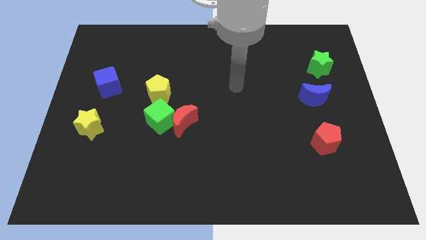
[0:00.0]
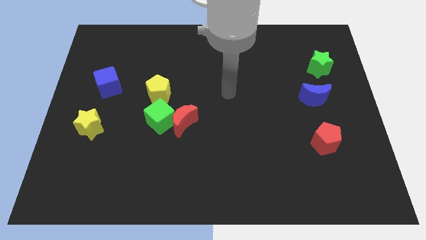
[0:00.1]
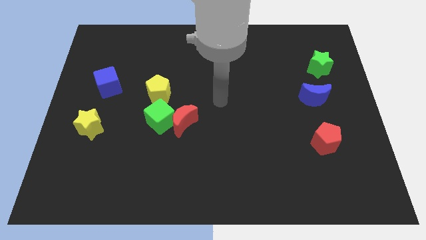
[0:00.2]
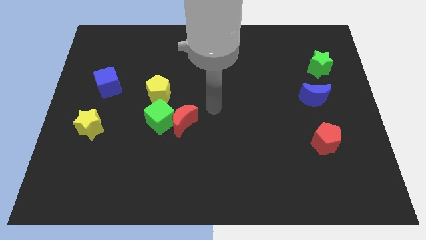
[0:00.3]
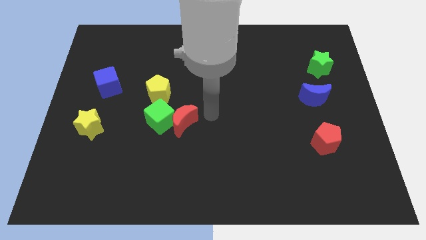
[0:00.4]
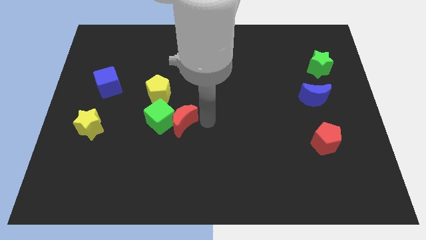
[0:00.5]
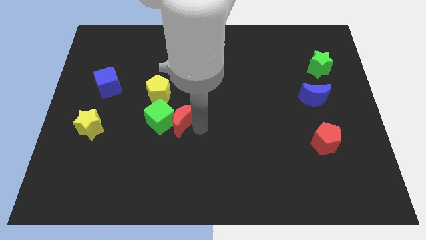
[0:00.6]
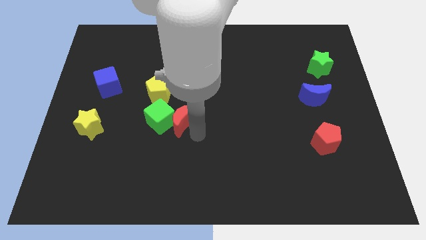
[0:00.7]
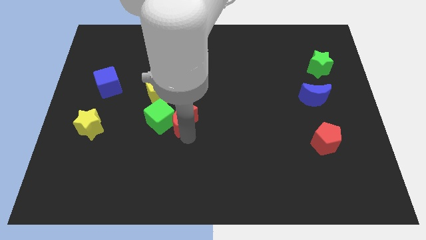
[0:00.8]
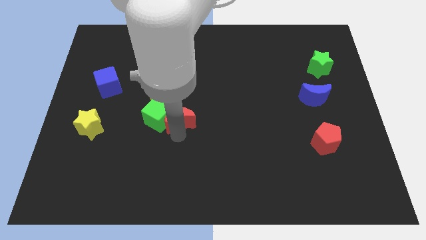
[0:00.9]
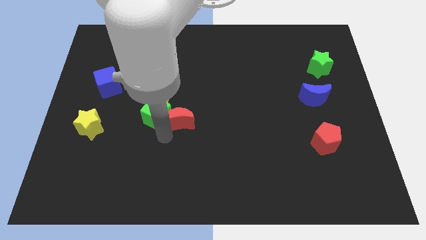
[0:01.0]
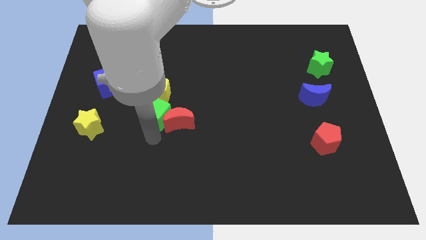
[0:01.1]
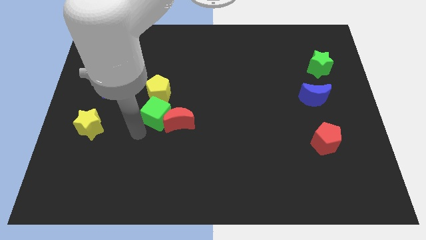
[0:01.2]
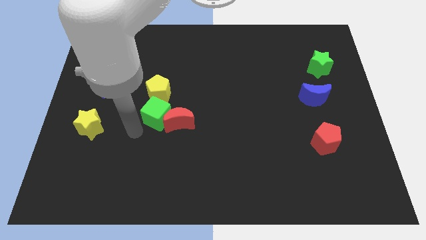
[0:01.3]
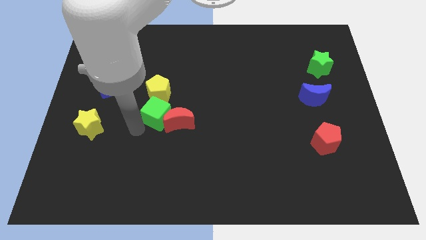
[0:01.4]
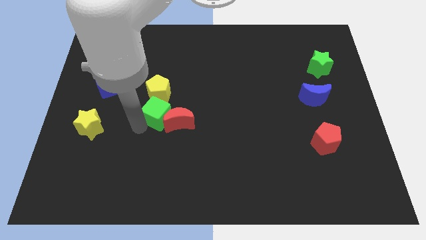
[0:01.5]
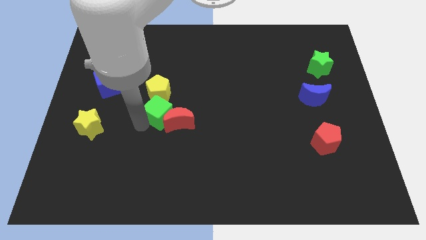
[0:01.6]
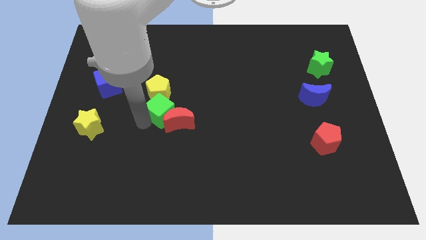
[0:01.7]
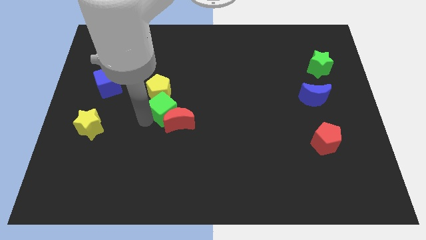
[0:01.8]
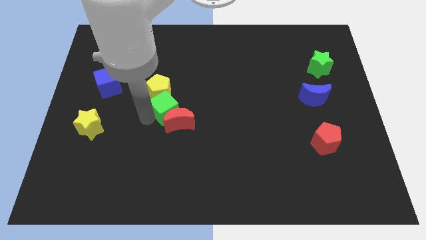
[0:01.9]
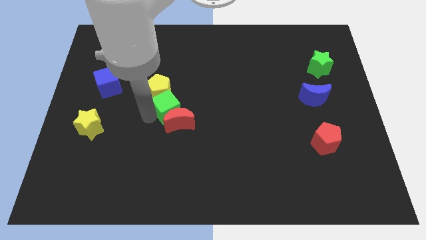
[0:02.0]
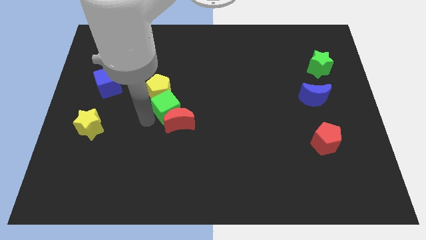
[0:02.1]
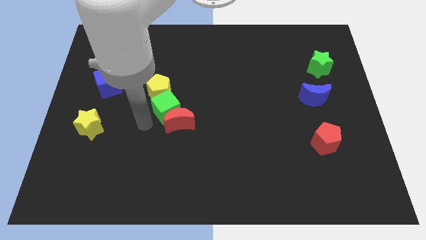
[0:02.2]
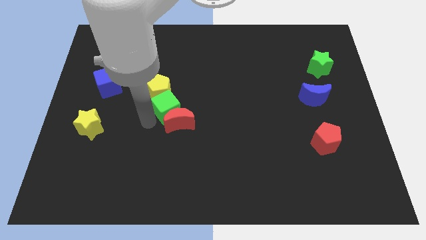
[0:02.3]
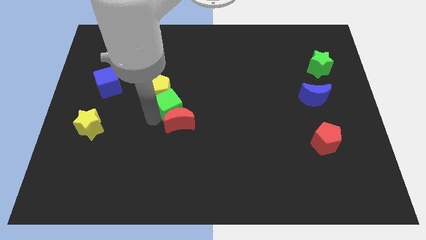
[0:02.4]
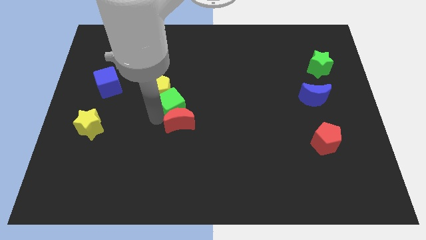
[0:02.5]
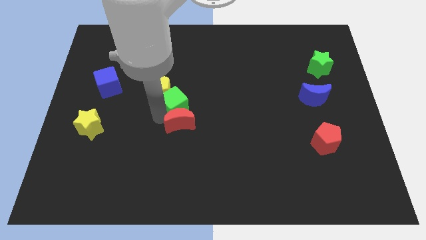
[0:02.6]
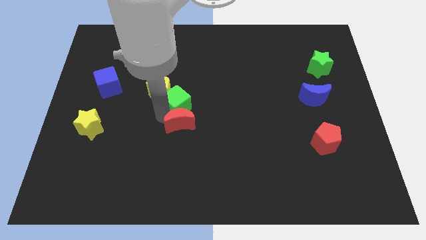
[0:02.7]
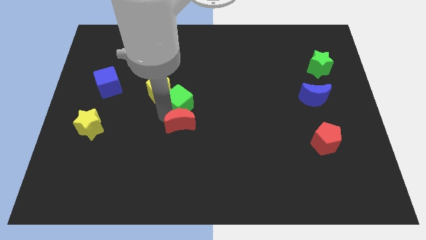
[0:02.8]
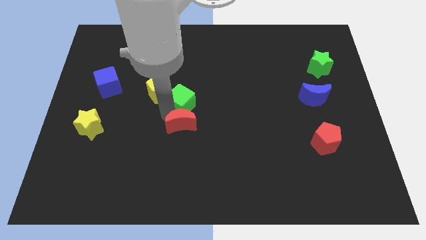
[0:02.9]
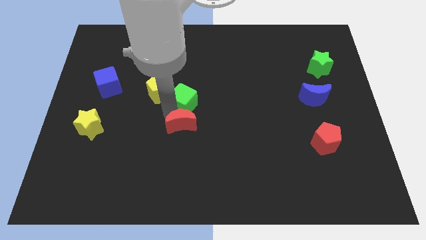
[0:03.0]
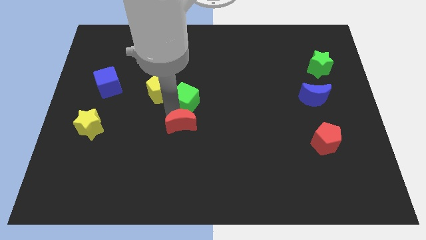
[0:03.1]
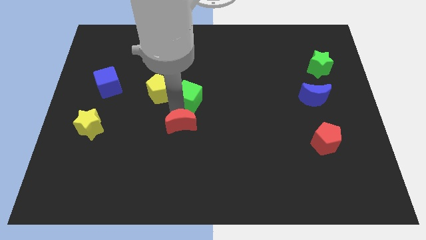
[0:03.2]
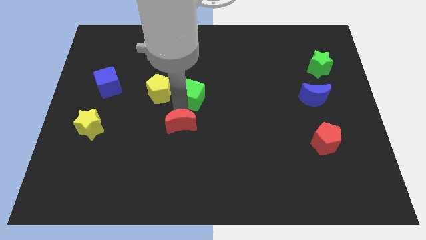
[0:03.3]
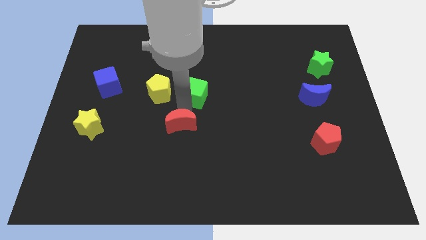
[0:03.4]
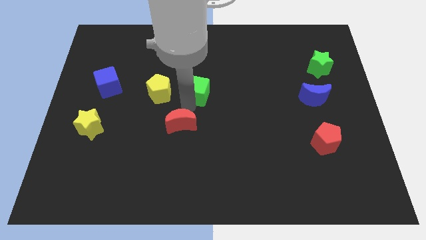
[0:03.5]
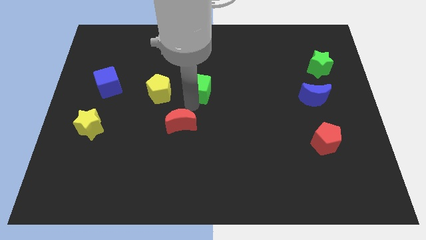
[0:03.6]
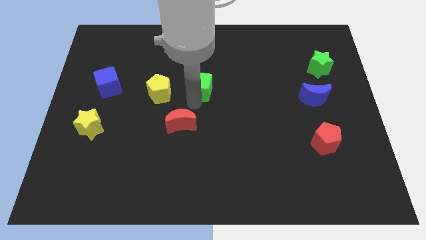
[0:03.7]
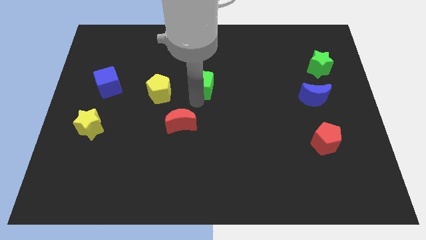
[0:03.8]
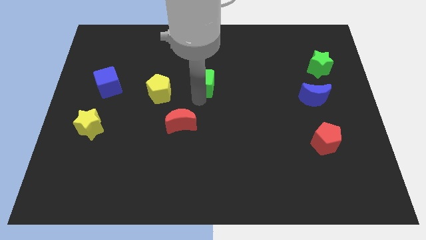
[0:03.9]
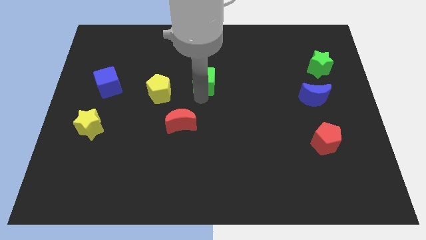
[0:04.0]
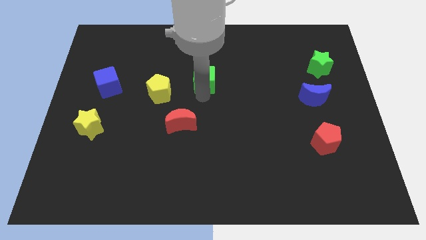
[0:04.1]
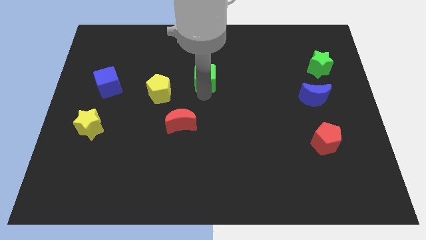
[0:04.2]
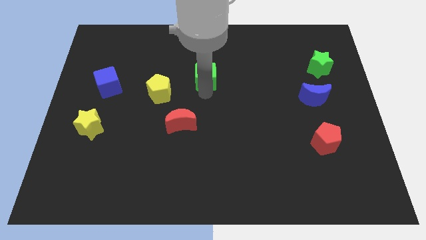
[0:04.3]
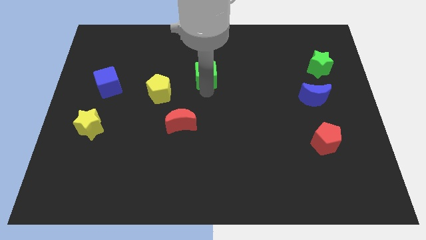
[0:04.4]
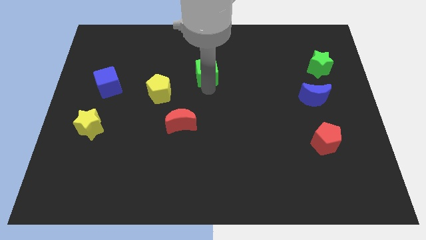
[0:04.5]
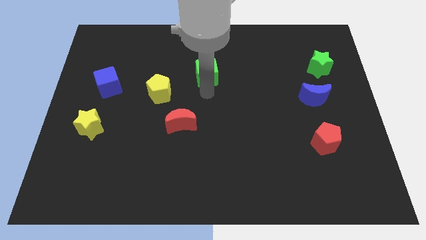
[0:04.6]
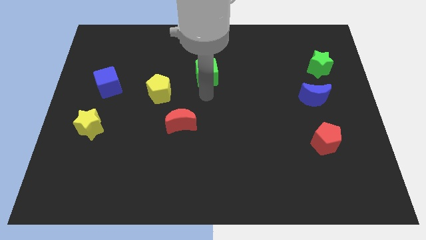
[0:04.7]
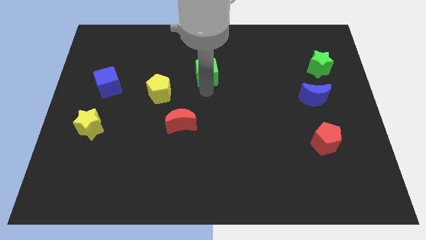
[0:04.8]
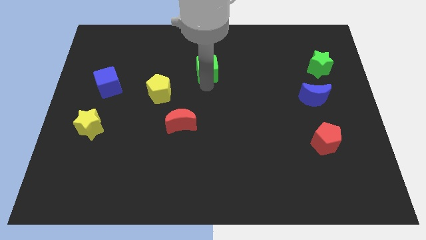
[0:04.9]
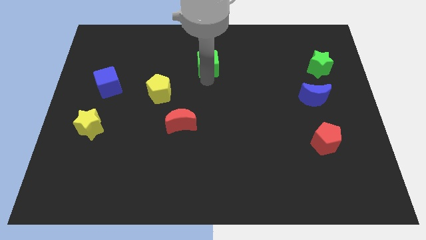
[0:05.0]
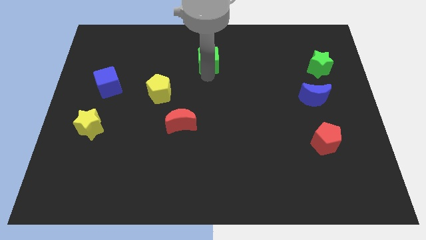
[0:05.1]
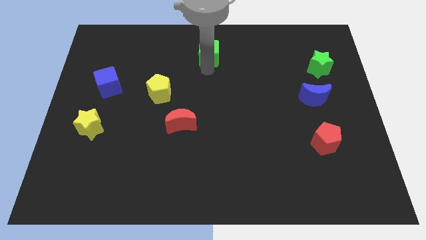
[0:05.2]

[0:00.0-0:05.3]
put the green cube to the top side

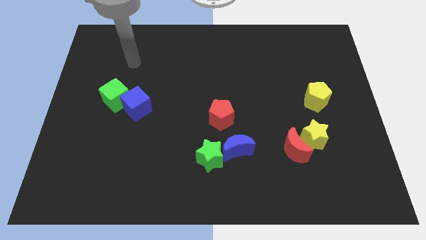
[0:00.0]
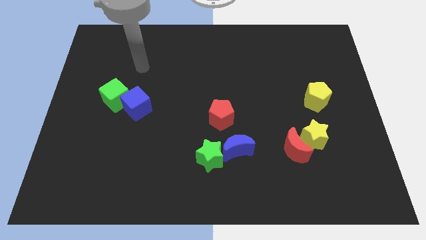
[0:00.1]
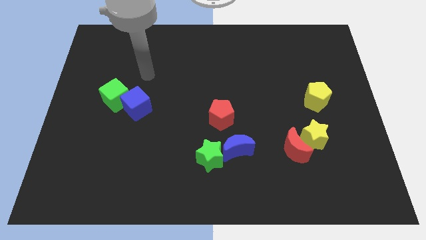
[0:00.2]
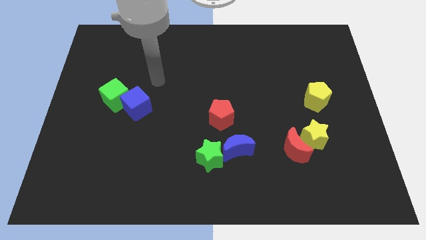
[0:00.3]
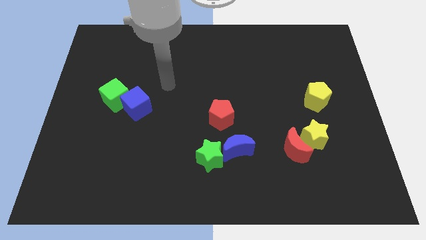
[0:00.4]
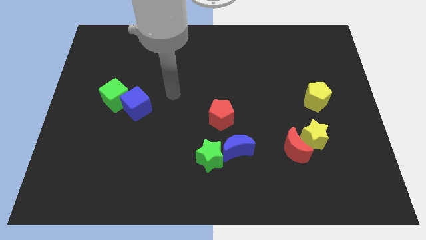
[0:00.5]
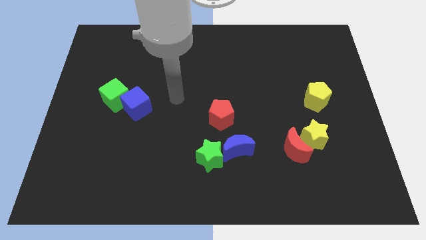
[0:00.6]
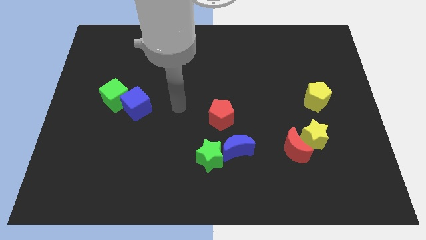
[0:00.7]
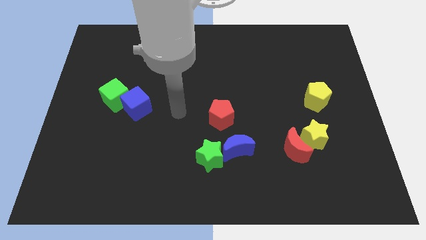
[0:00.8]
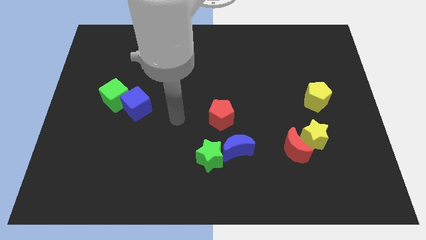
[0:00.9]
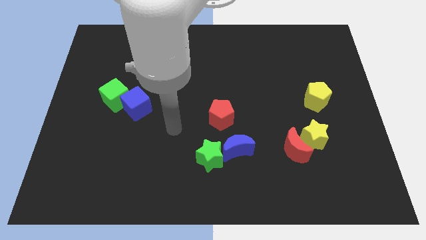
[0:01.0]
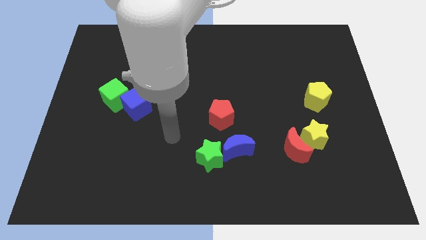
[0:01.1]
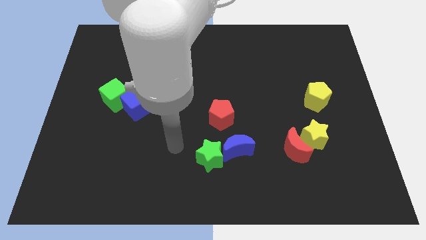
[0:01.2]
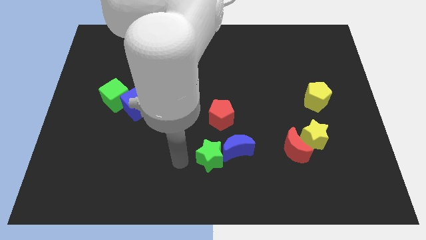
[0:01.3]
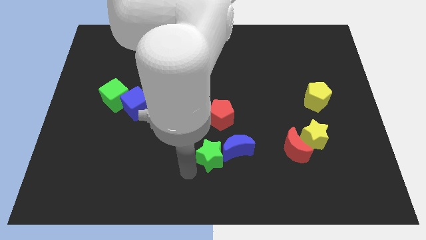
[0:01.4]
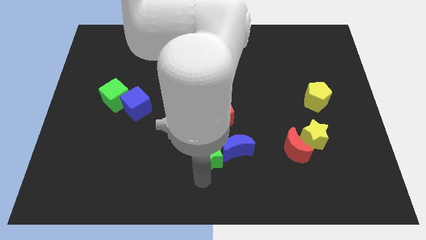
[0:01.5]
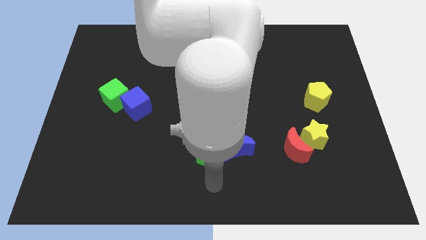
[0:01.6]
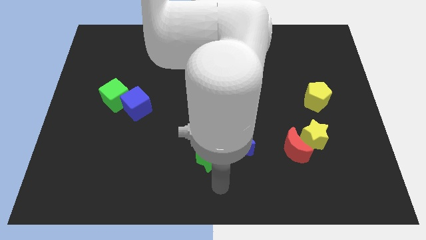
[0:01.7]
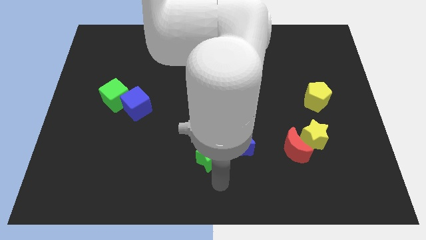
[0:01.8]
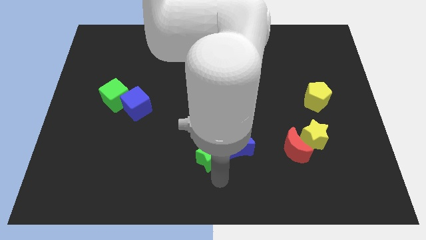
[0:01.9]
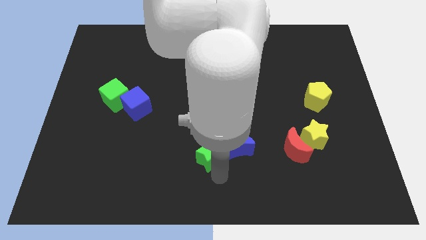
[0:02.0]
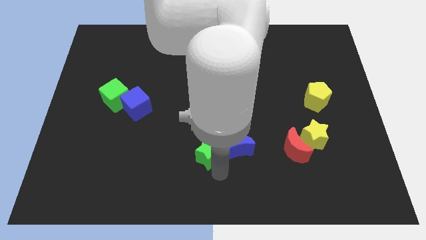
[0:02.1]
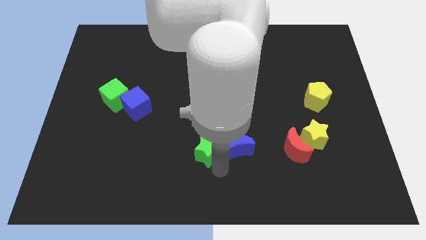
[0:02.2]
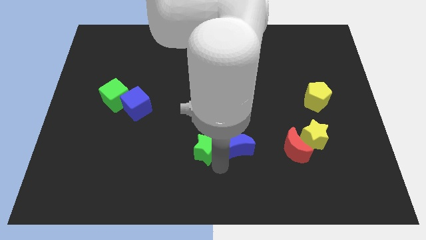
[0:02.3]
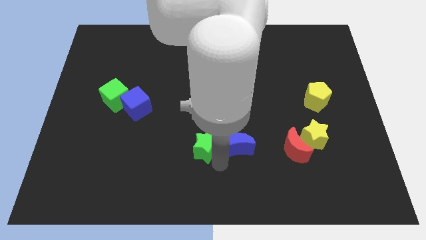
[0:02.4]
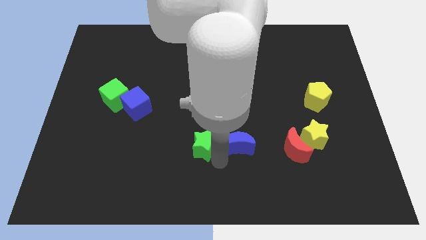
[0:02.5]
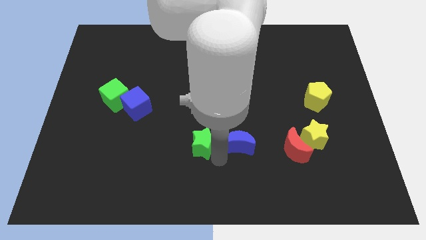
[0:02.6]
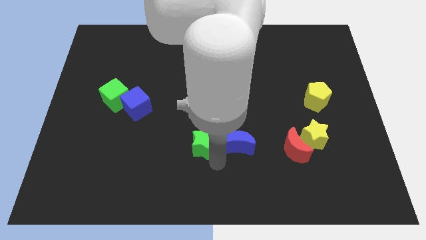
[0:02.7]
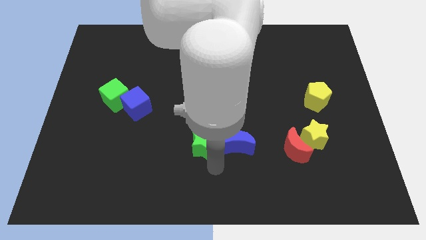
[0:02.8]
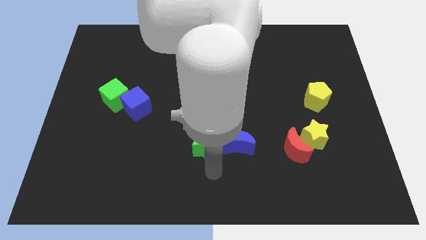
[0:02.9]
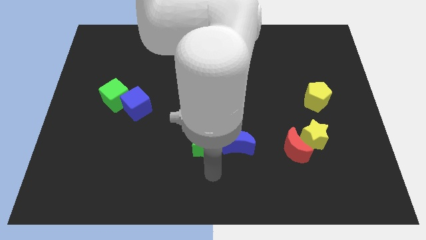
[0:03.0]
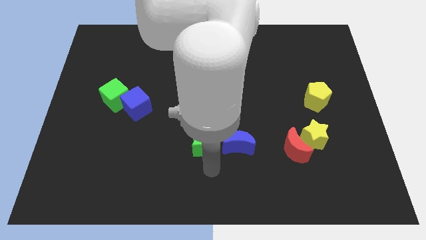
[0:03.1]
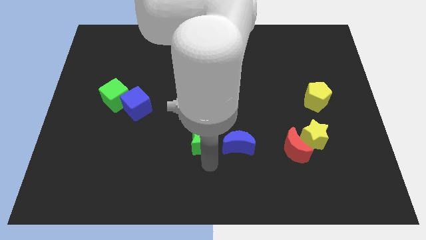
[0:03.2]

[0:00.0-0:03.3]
put the green star to the middle of the board
